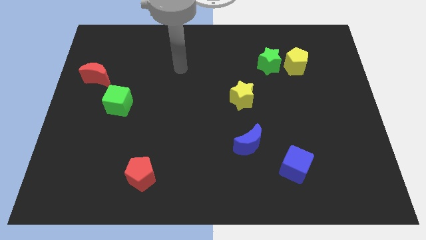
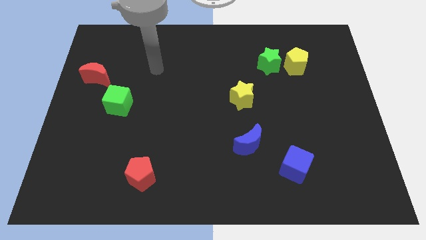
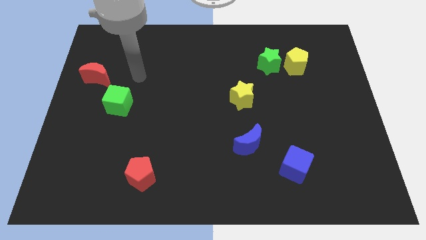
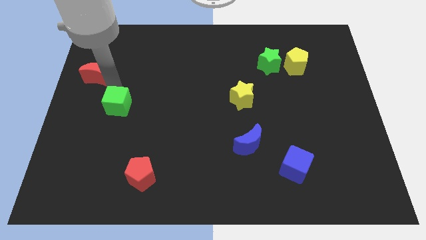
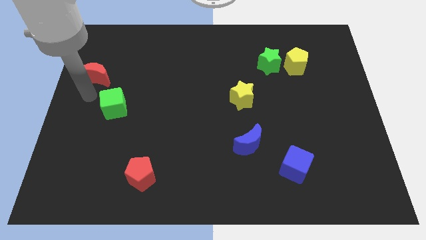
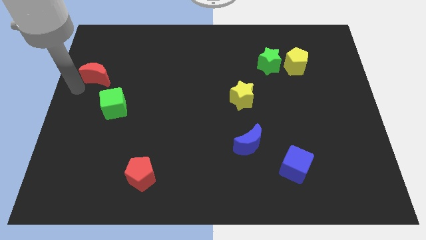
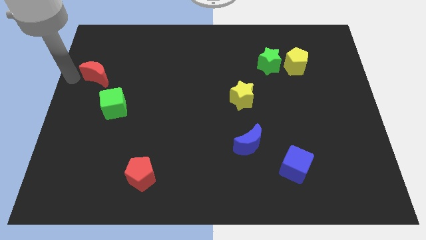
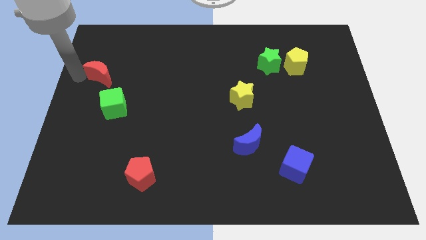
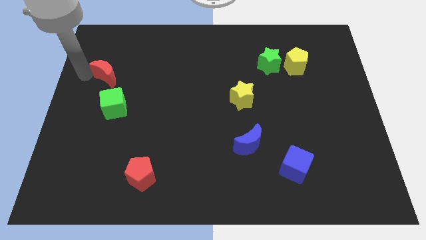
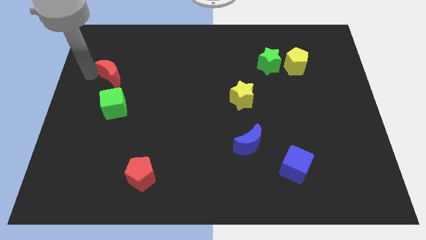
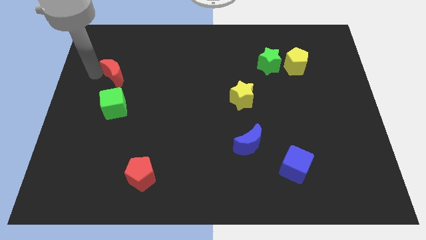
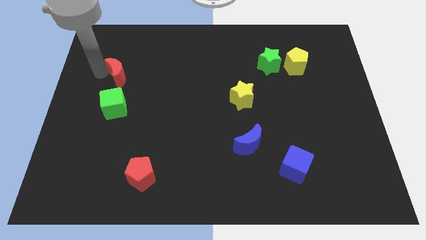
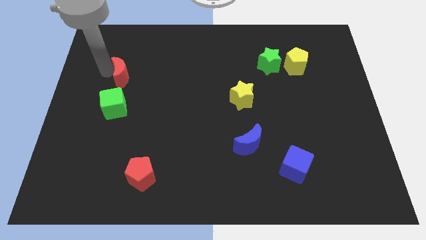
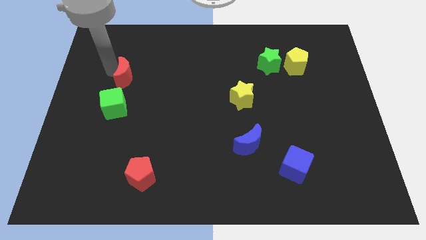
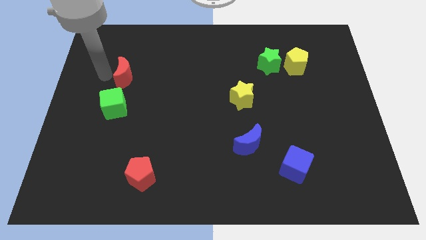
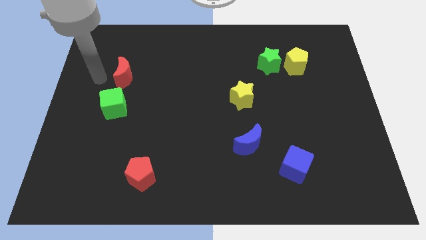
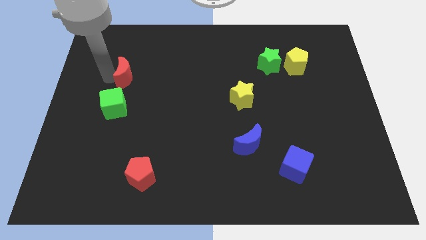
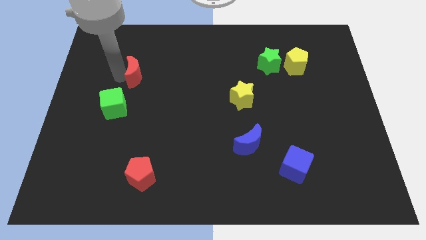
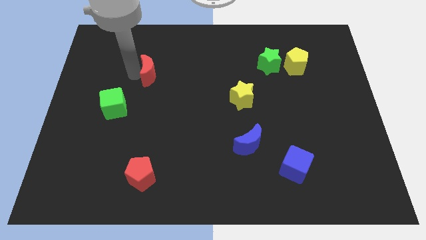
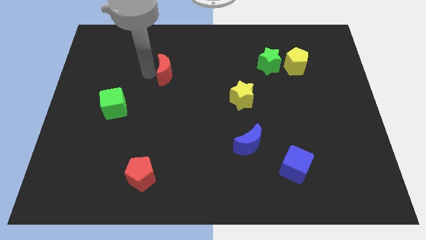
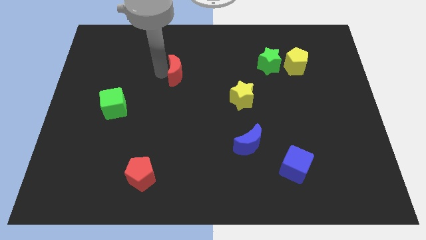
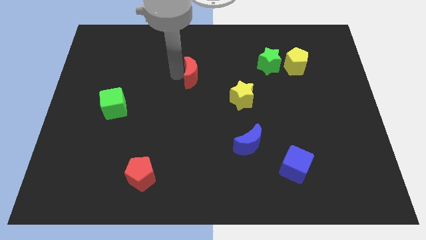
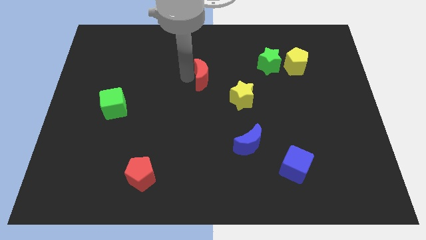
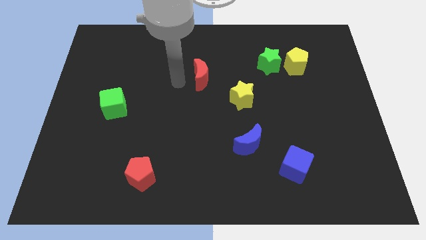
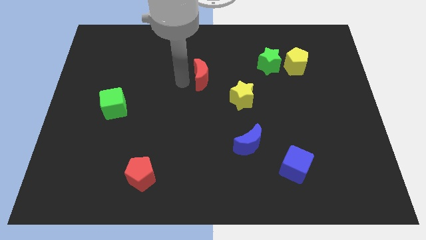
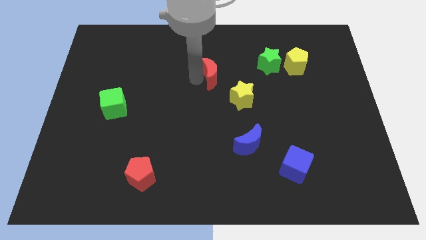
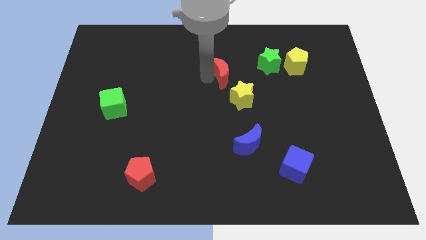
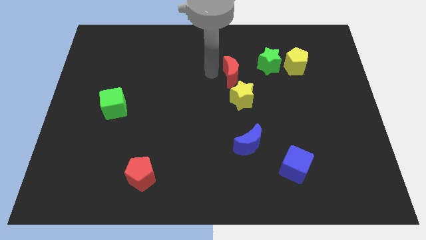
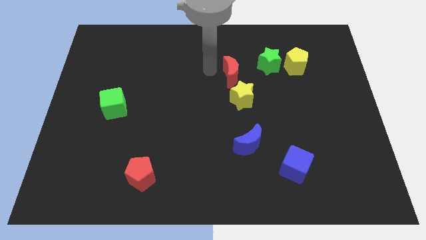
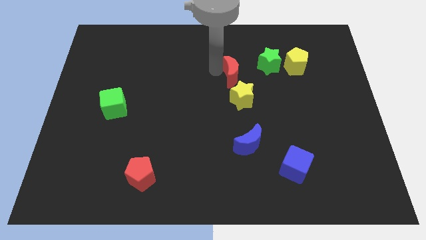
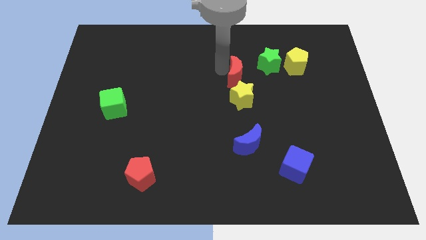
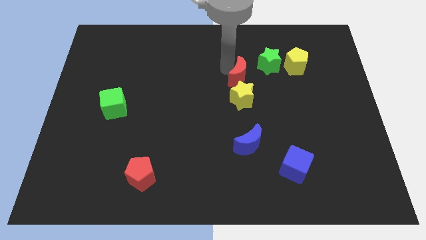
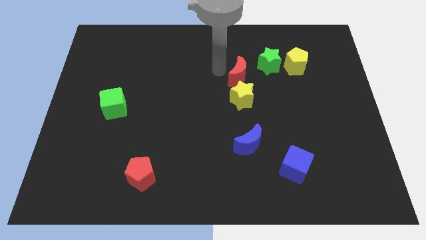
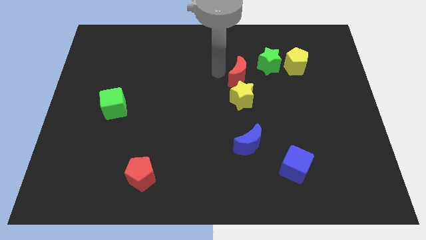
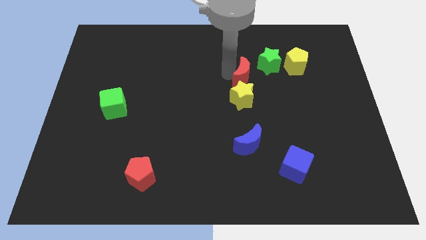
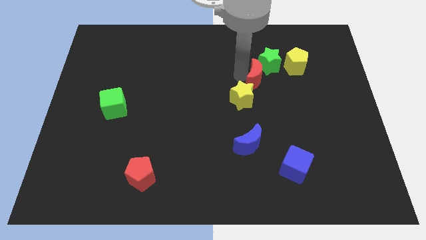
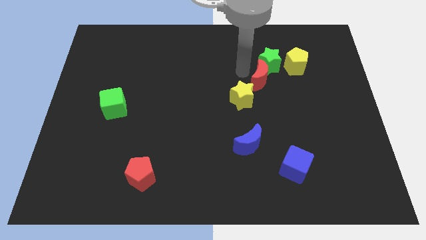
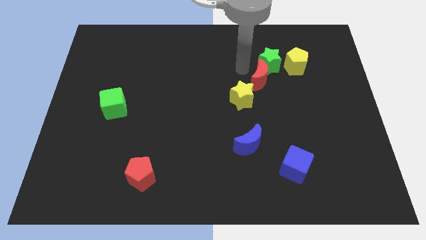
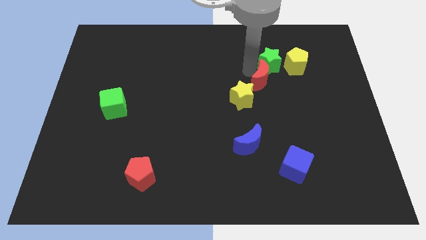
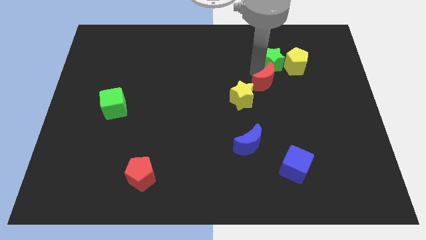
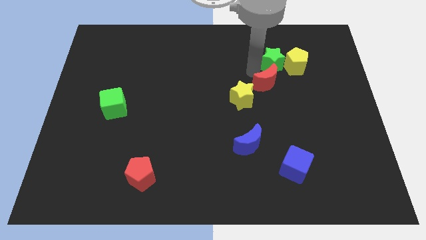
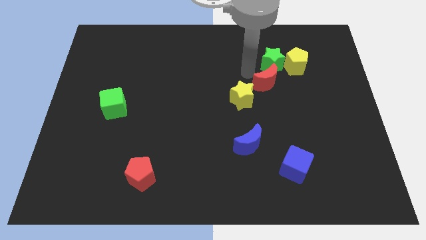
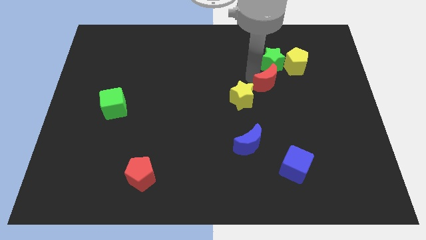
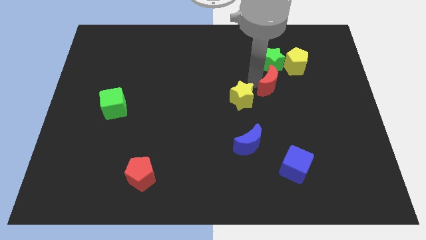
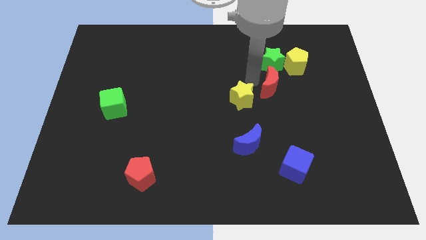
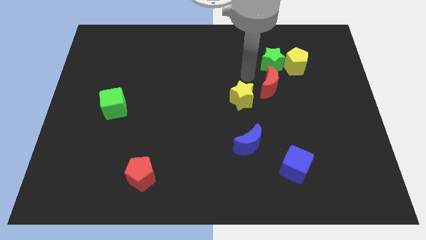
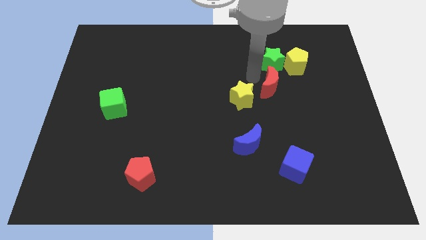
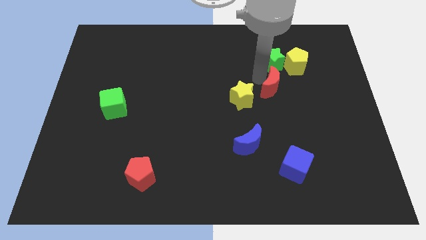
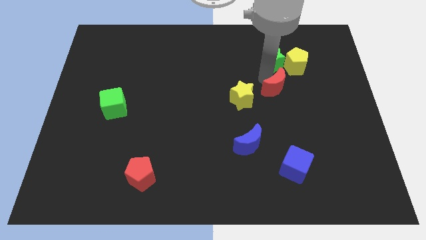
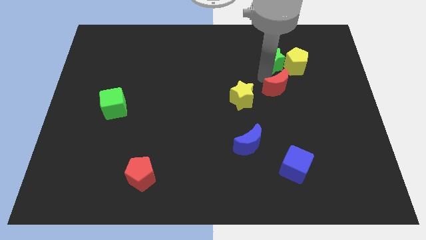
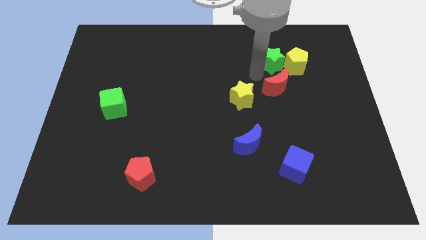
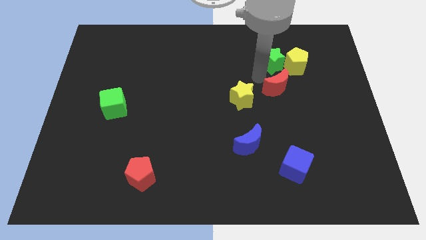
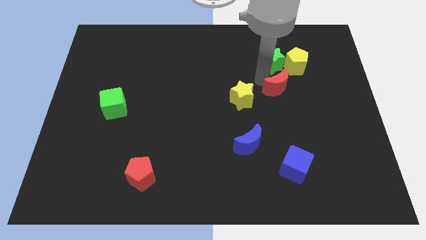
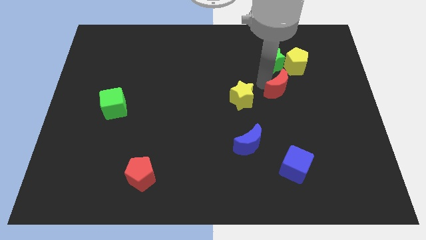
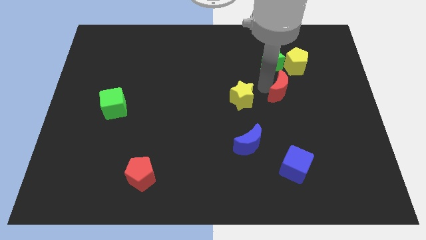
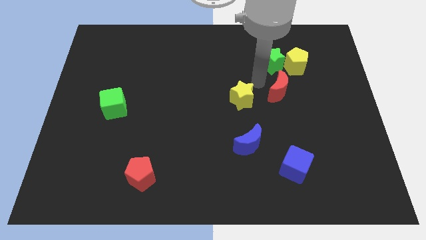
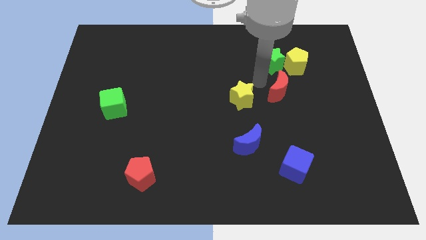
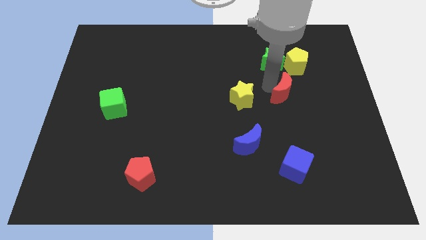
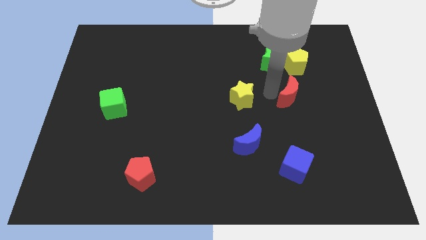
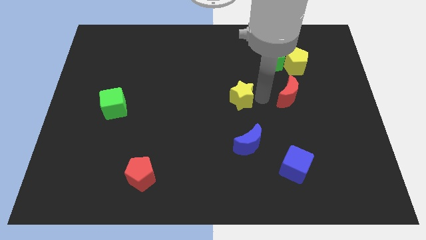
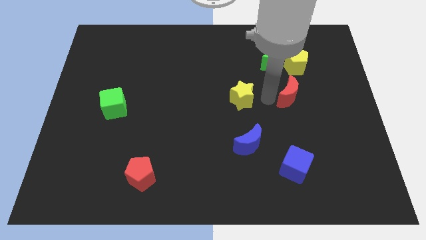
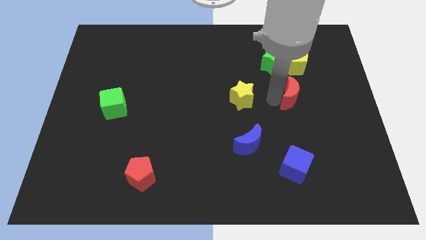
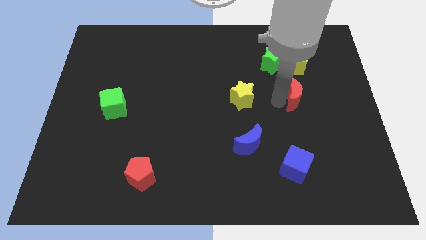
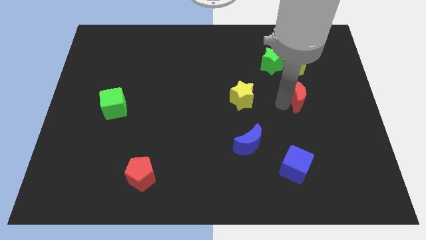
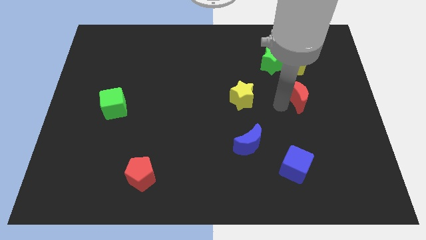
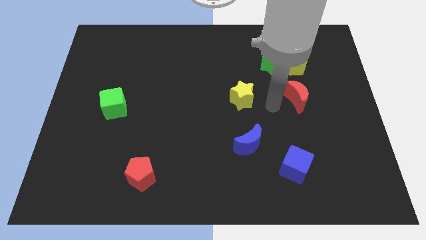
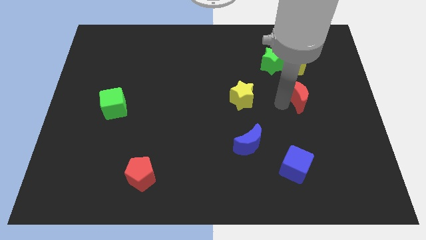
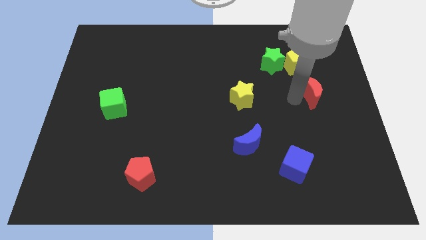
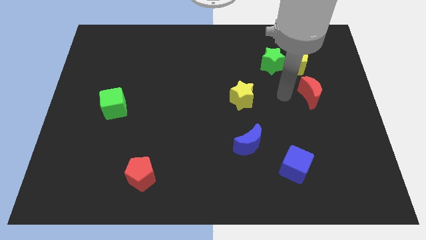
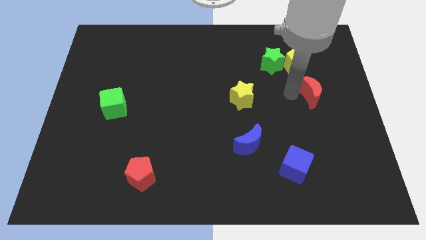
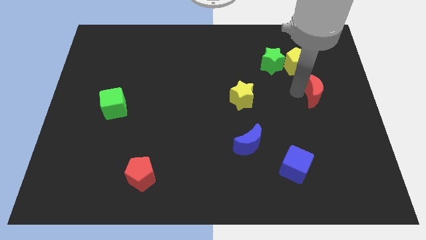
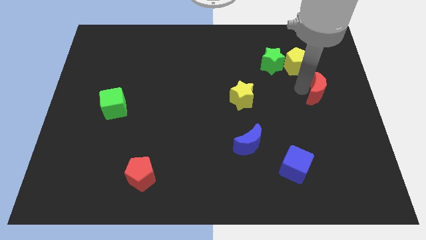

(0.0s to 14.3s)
slide the red moon to the center right
